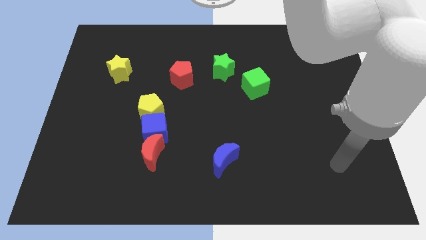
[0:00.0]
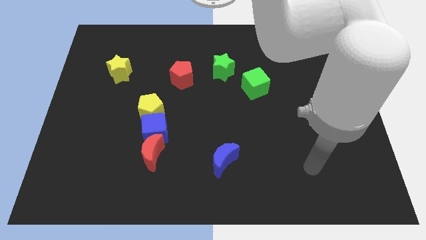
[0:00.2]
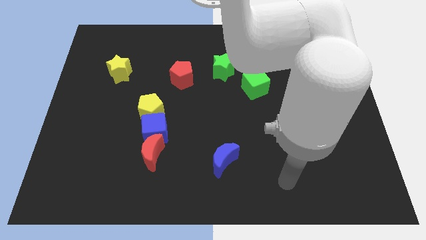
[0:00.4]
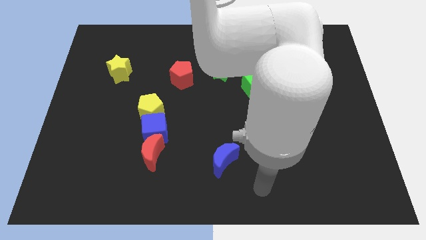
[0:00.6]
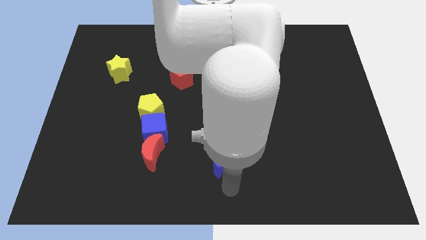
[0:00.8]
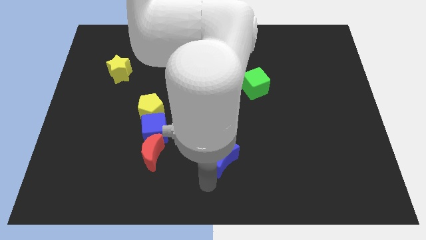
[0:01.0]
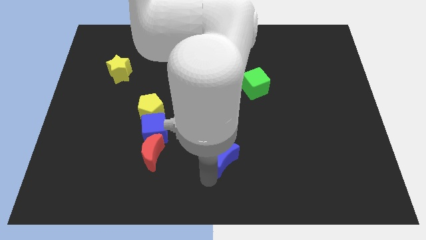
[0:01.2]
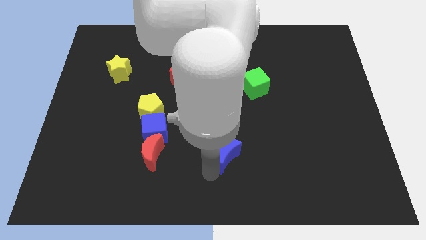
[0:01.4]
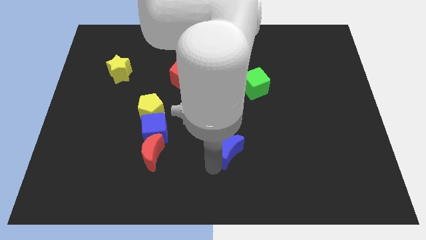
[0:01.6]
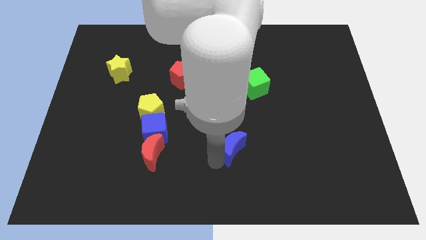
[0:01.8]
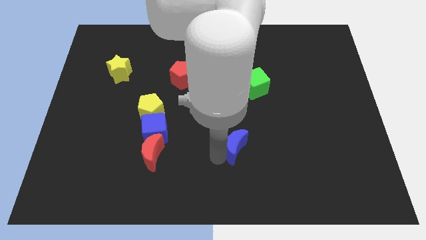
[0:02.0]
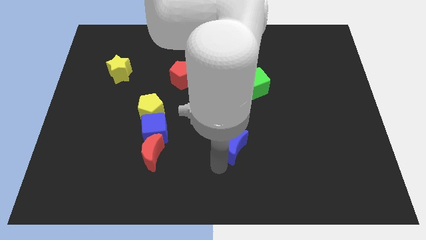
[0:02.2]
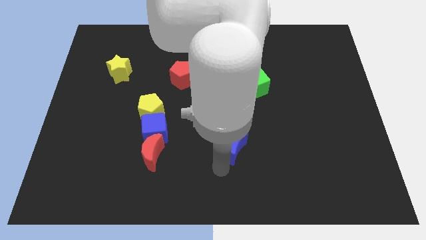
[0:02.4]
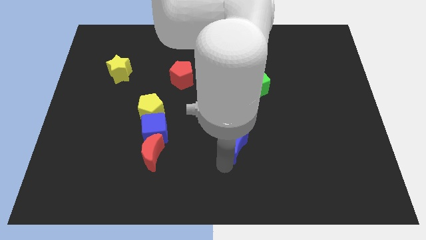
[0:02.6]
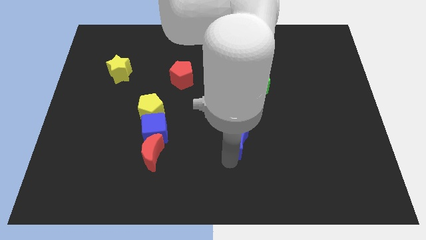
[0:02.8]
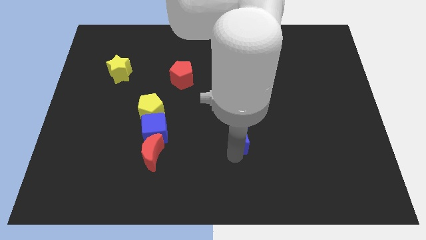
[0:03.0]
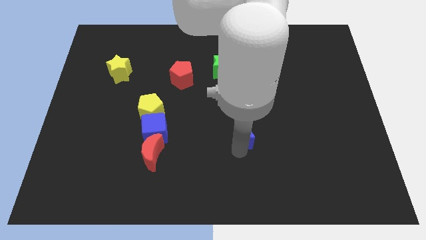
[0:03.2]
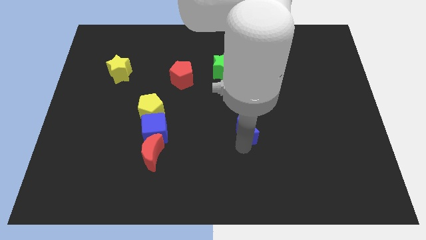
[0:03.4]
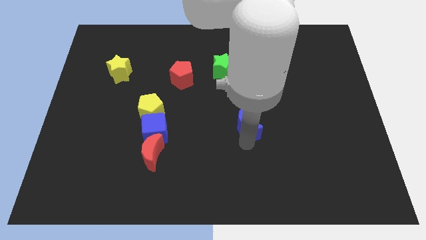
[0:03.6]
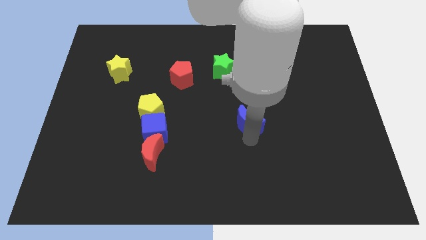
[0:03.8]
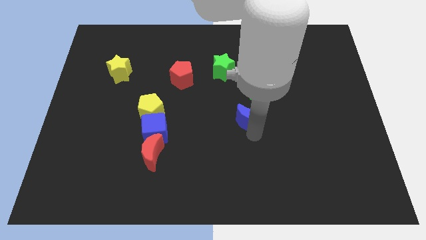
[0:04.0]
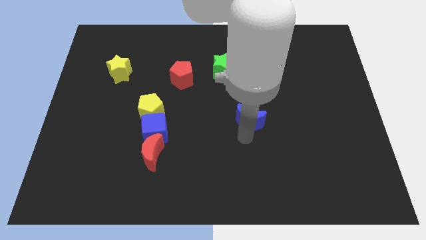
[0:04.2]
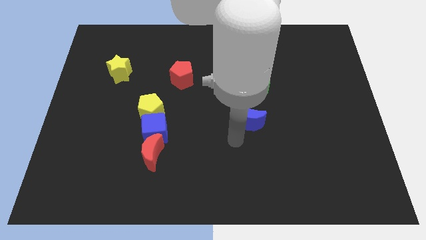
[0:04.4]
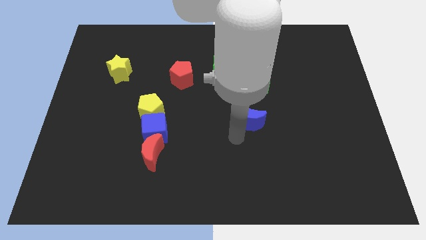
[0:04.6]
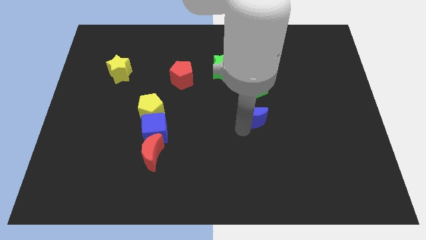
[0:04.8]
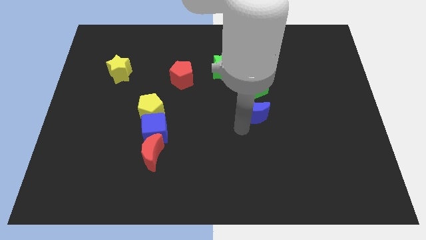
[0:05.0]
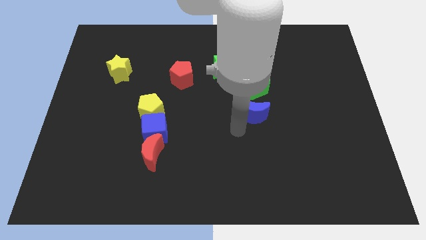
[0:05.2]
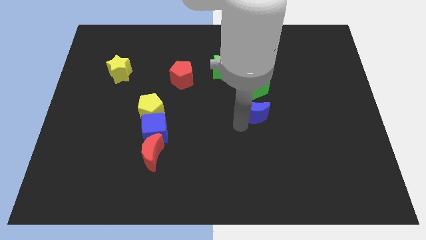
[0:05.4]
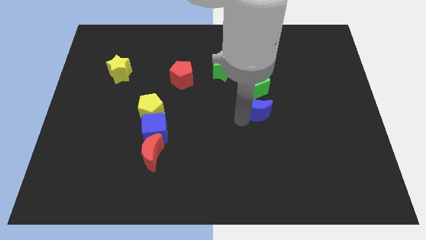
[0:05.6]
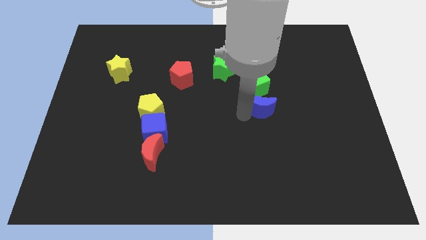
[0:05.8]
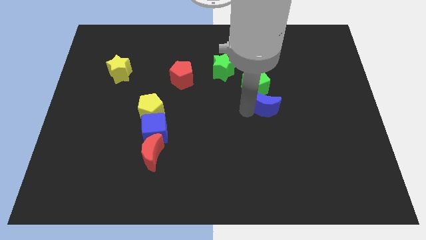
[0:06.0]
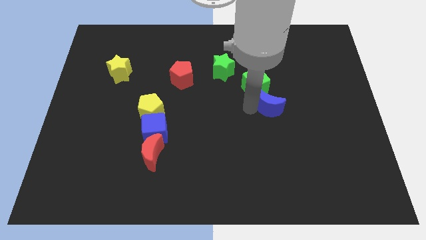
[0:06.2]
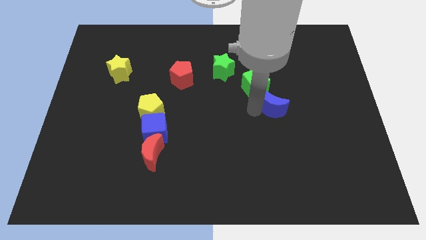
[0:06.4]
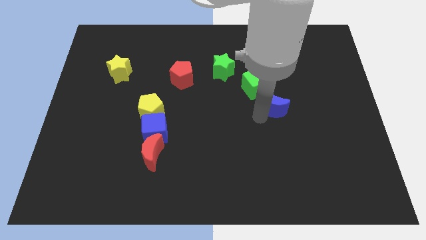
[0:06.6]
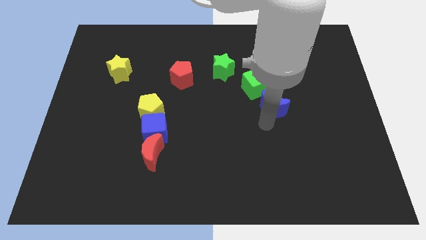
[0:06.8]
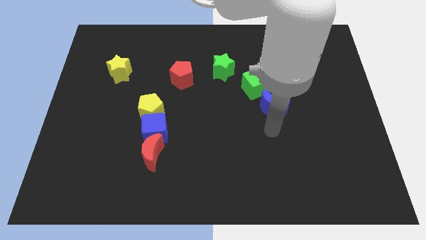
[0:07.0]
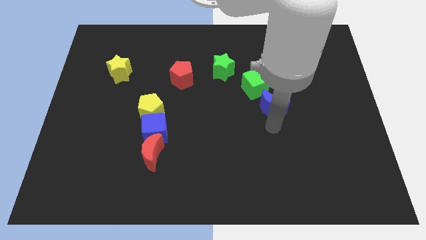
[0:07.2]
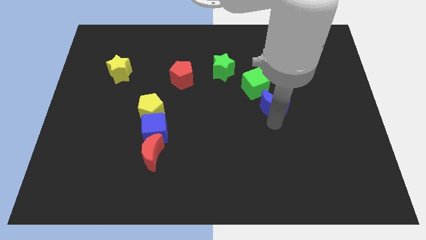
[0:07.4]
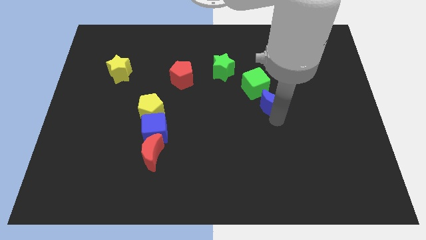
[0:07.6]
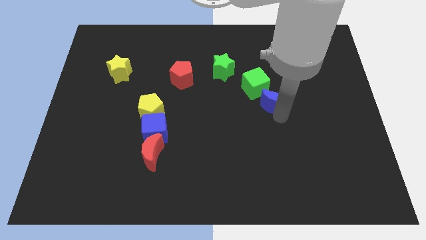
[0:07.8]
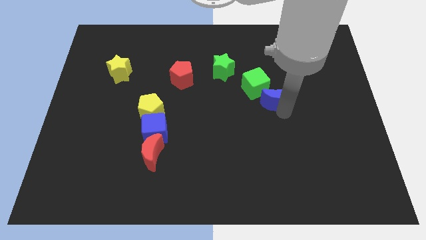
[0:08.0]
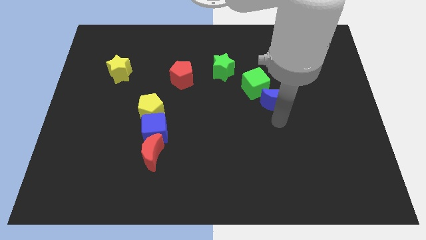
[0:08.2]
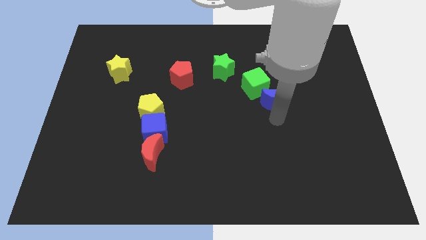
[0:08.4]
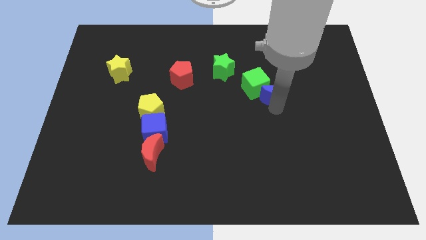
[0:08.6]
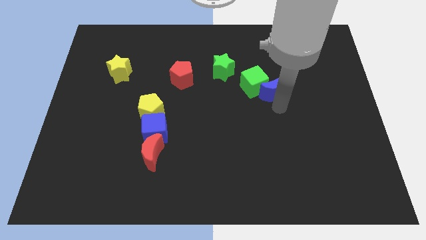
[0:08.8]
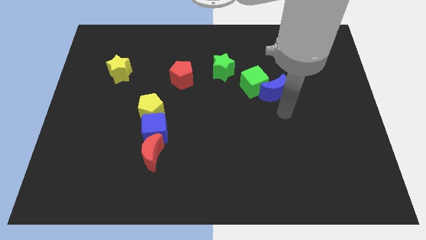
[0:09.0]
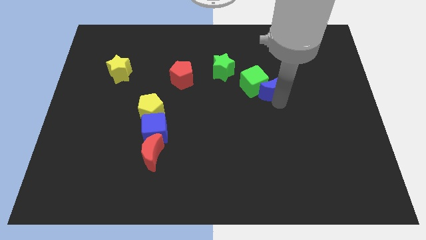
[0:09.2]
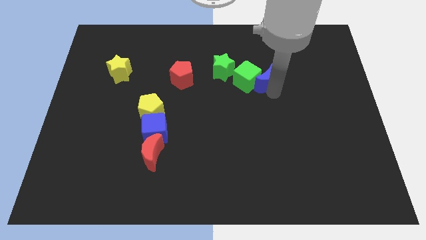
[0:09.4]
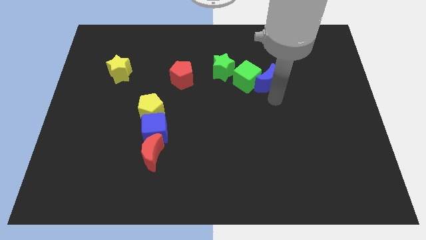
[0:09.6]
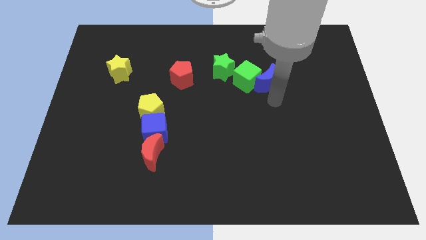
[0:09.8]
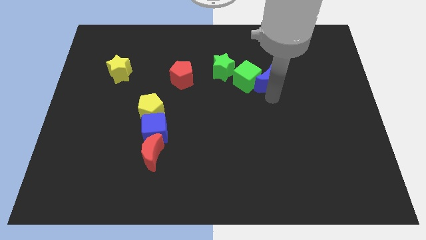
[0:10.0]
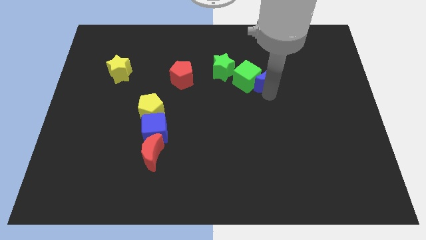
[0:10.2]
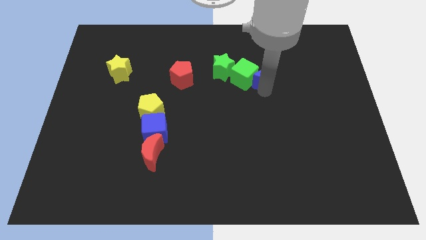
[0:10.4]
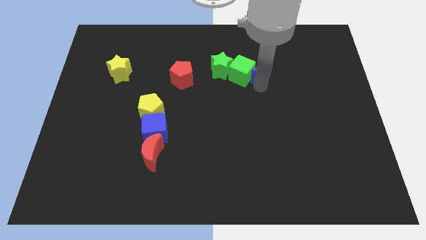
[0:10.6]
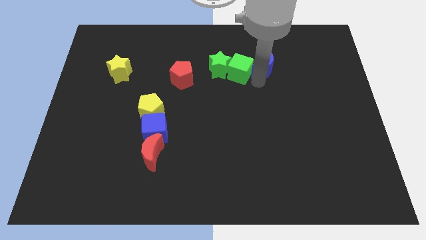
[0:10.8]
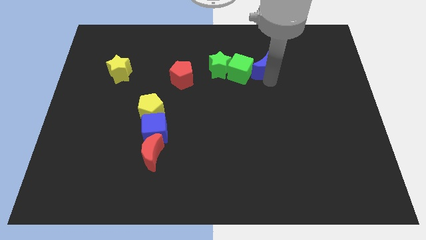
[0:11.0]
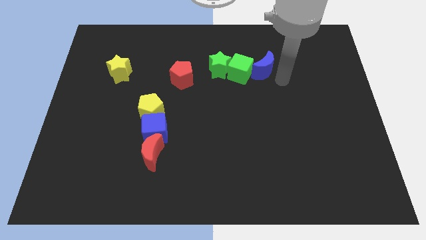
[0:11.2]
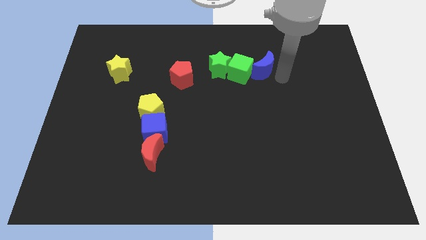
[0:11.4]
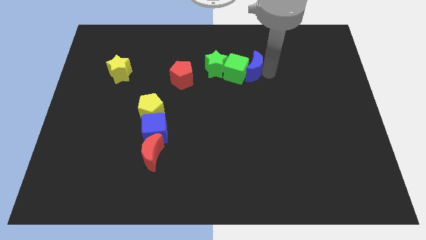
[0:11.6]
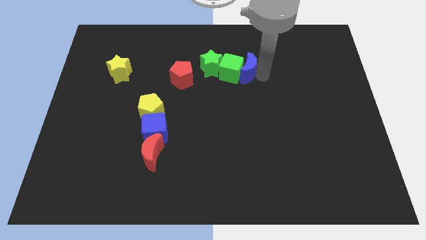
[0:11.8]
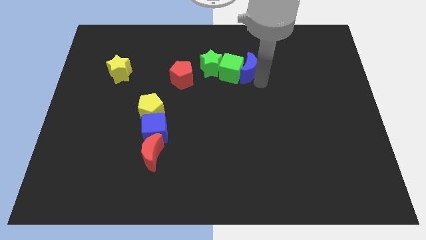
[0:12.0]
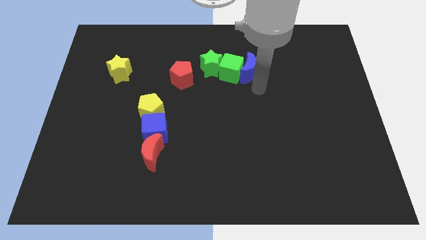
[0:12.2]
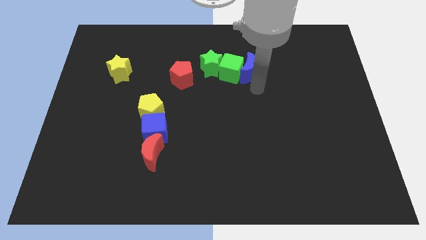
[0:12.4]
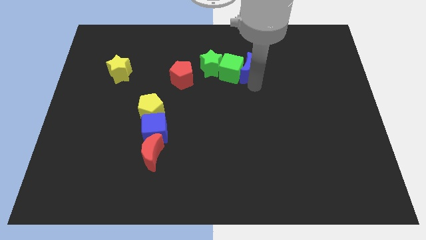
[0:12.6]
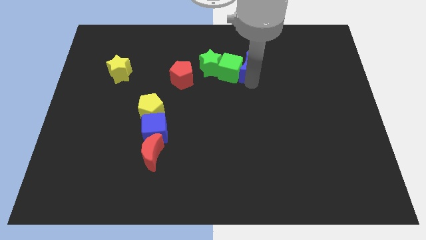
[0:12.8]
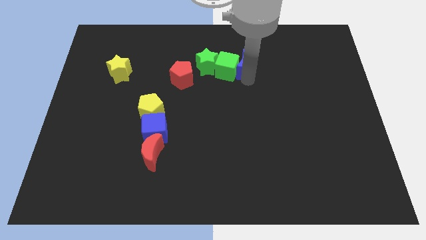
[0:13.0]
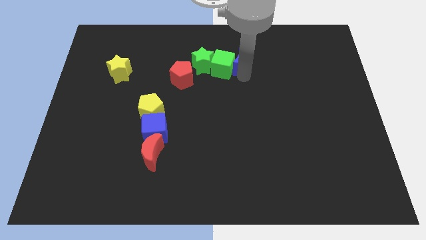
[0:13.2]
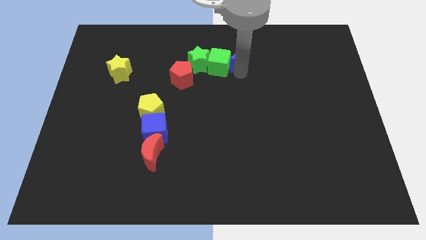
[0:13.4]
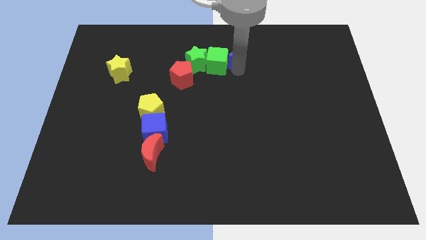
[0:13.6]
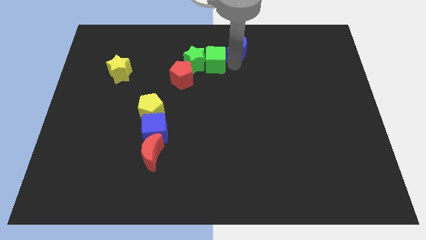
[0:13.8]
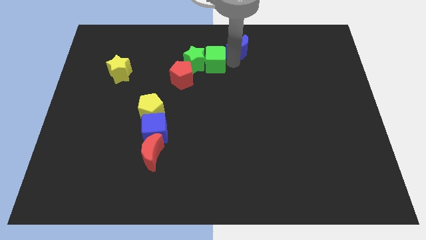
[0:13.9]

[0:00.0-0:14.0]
push the blue moon to the top

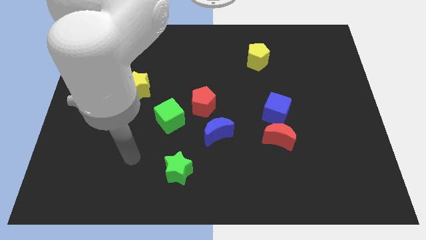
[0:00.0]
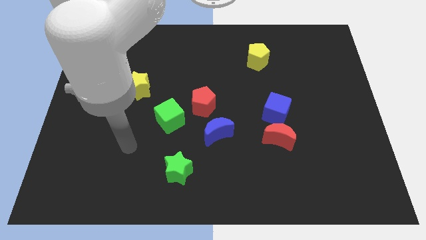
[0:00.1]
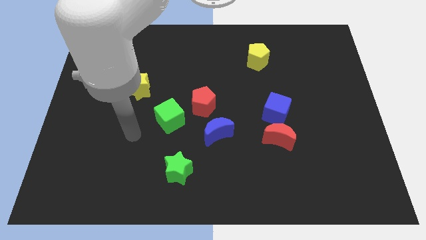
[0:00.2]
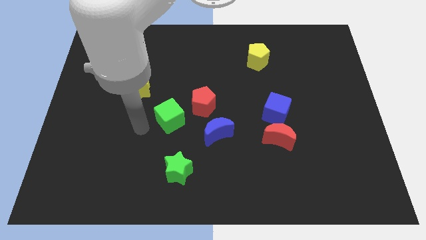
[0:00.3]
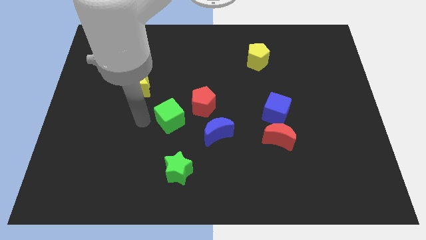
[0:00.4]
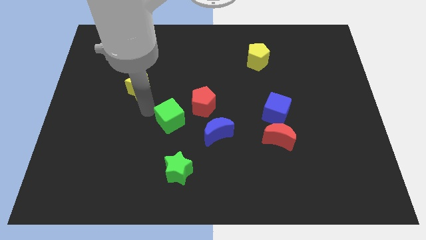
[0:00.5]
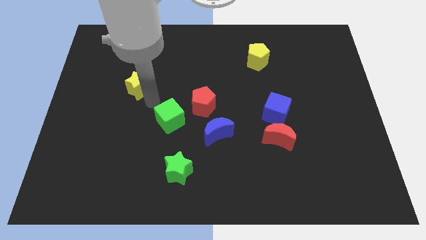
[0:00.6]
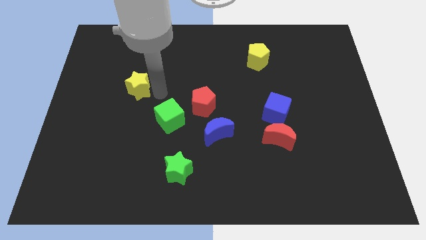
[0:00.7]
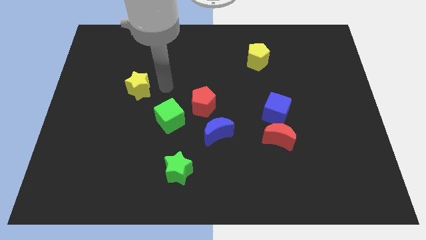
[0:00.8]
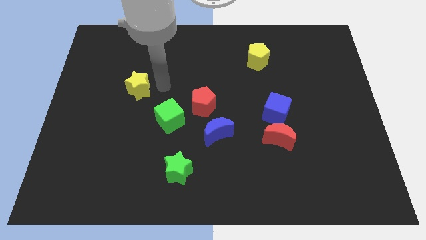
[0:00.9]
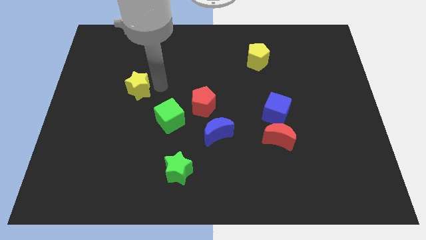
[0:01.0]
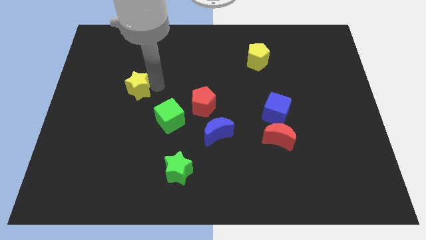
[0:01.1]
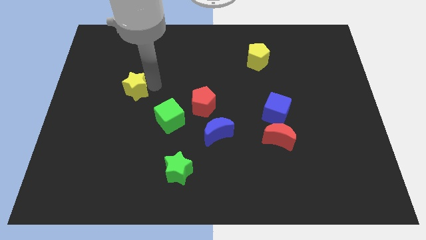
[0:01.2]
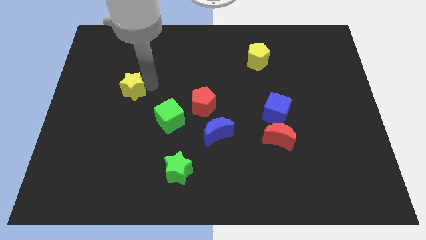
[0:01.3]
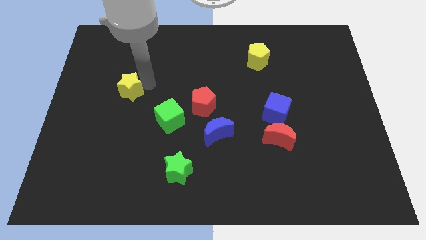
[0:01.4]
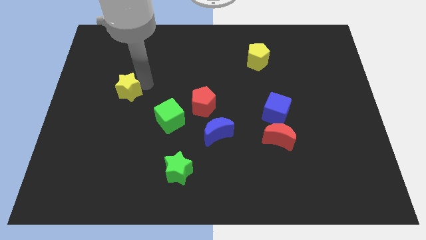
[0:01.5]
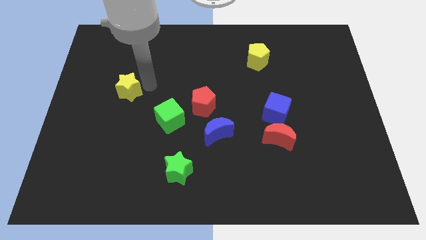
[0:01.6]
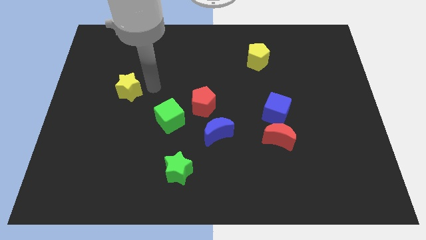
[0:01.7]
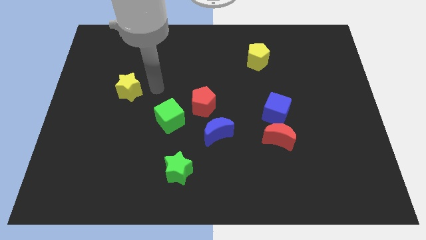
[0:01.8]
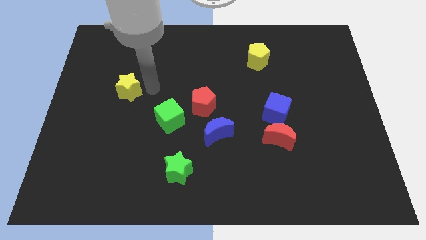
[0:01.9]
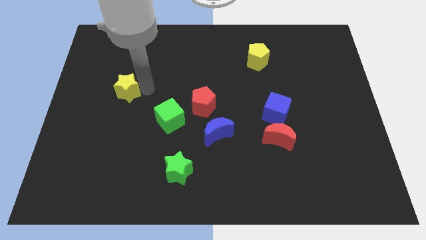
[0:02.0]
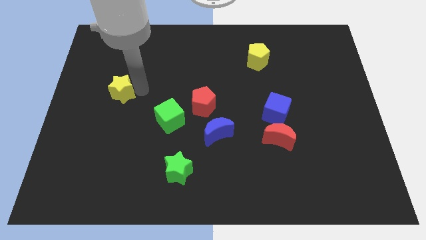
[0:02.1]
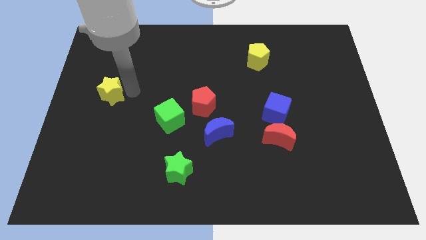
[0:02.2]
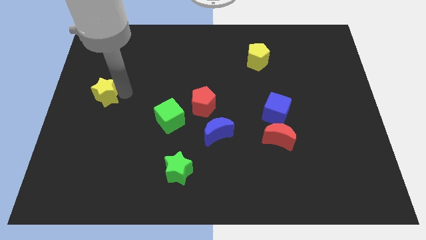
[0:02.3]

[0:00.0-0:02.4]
put the yellow star to the center left
